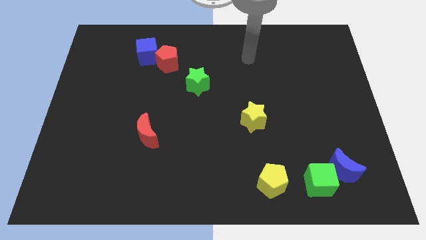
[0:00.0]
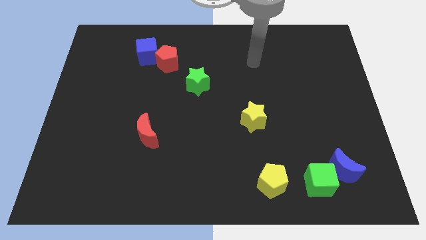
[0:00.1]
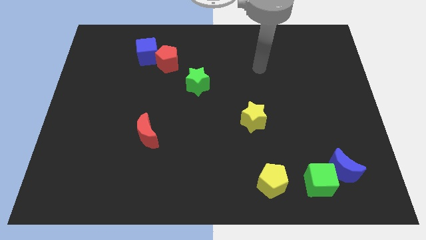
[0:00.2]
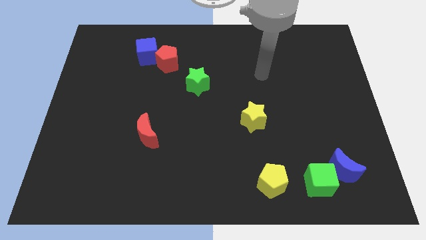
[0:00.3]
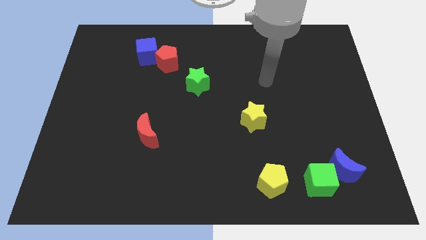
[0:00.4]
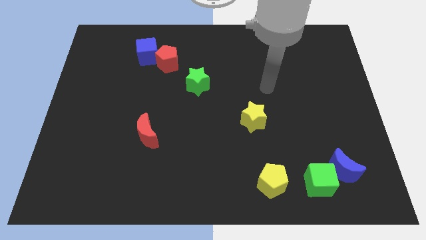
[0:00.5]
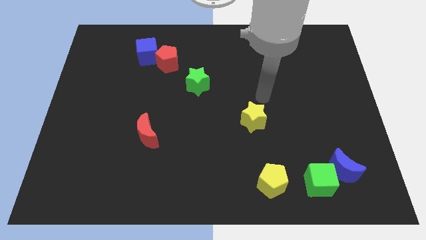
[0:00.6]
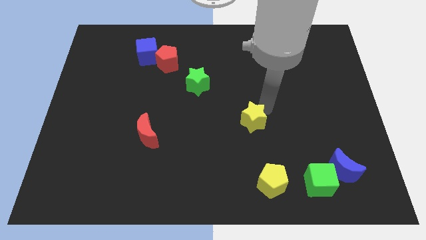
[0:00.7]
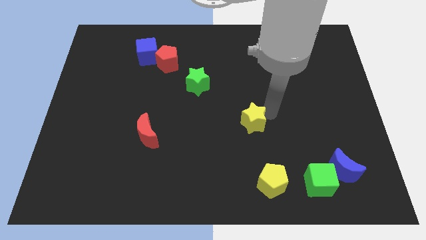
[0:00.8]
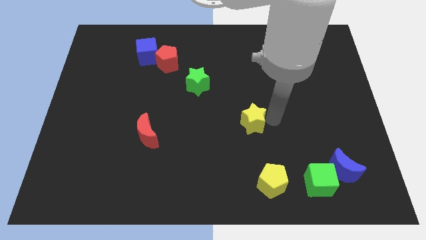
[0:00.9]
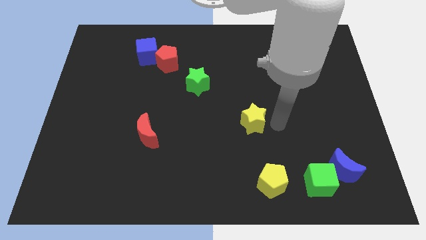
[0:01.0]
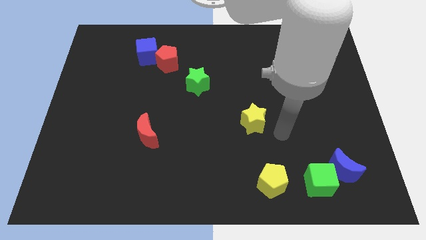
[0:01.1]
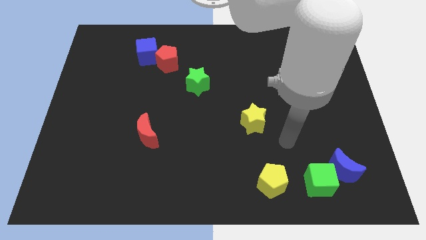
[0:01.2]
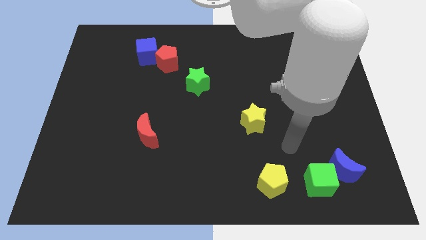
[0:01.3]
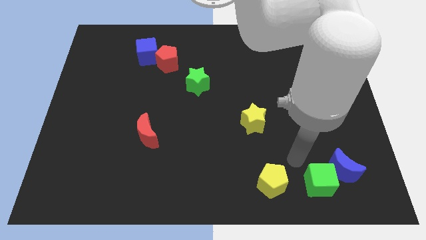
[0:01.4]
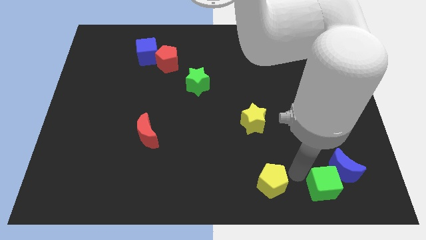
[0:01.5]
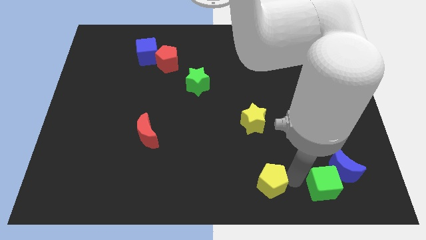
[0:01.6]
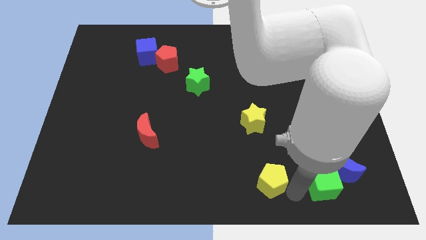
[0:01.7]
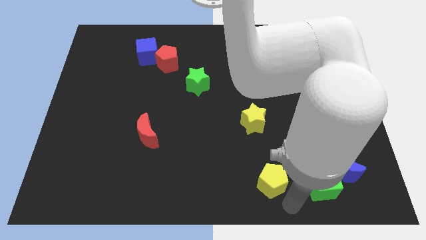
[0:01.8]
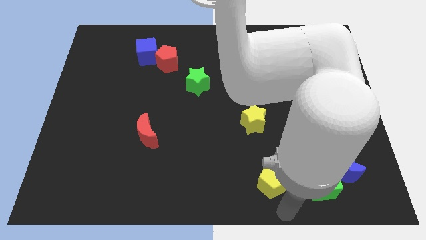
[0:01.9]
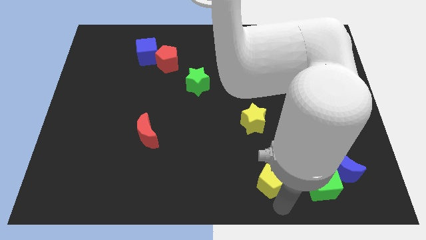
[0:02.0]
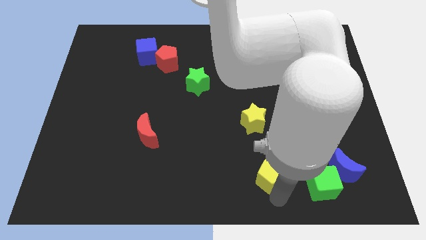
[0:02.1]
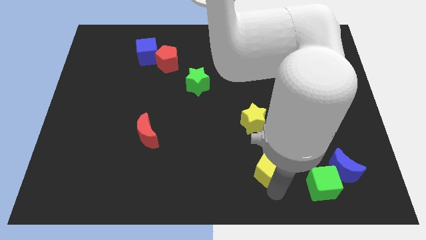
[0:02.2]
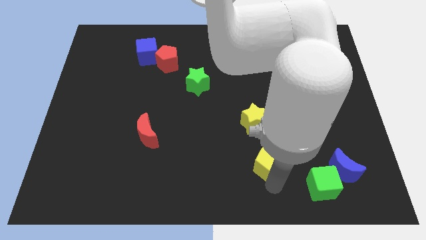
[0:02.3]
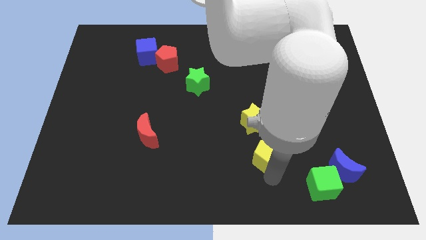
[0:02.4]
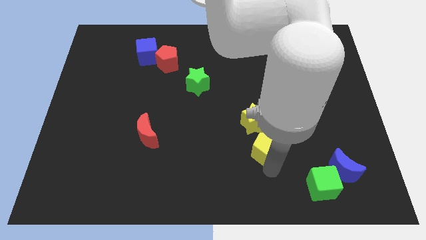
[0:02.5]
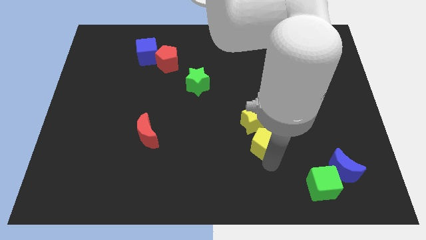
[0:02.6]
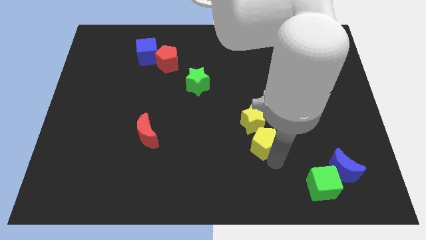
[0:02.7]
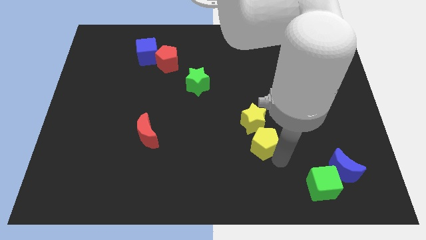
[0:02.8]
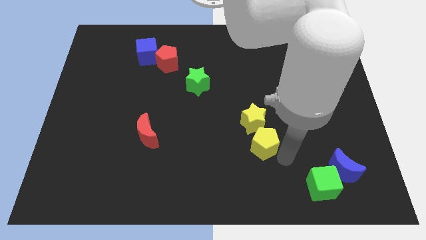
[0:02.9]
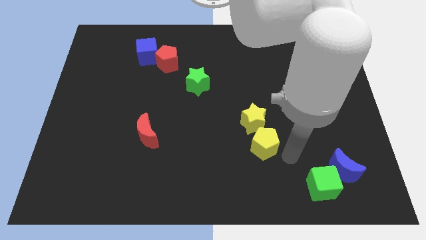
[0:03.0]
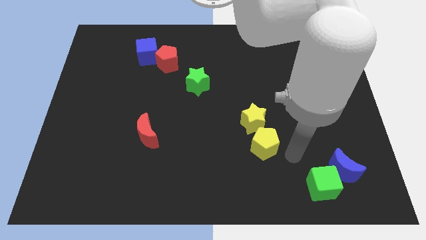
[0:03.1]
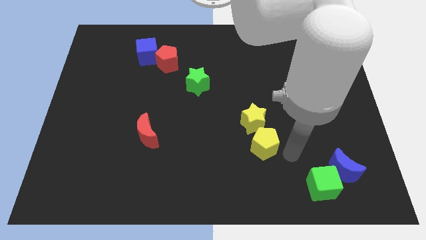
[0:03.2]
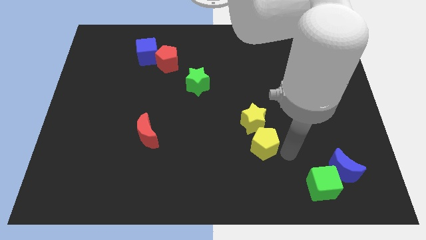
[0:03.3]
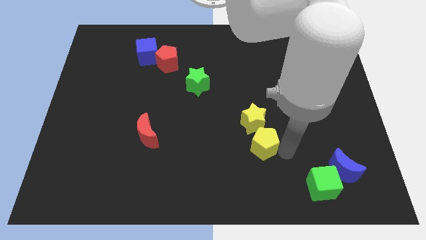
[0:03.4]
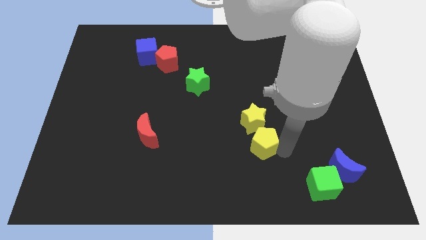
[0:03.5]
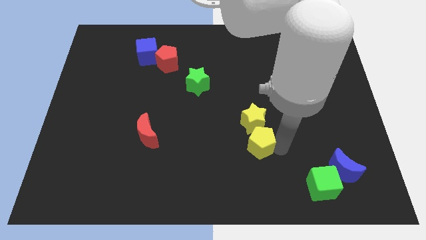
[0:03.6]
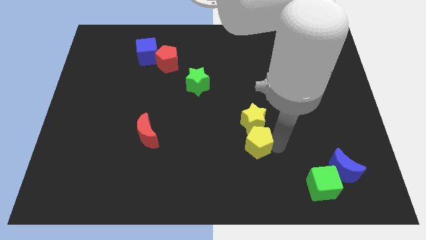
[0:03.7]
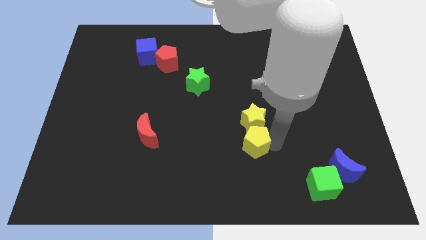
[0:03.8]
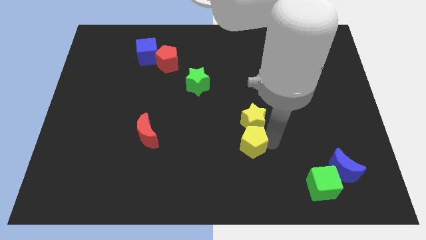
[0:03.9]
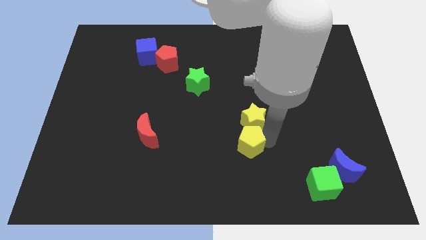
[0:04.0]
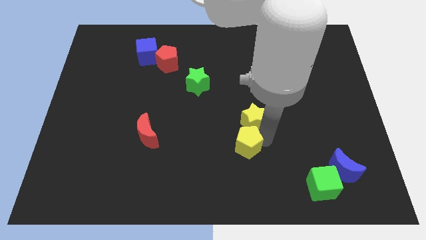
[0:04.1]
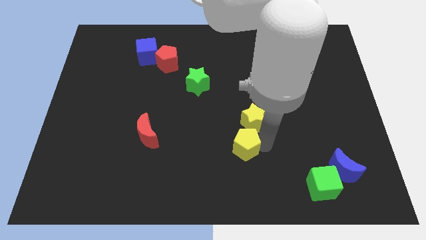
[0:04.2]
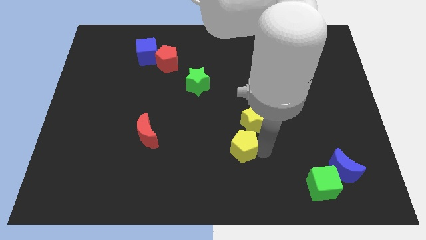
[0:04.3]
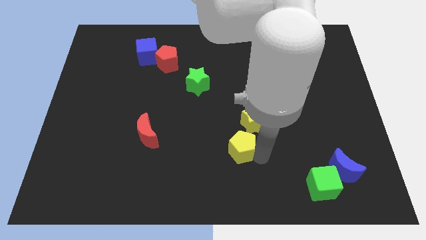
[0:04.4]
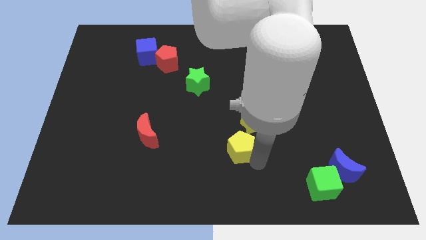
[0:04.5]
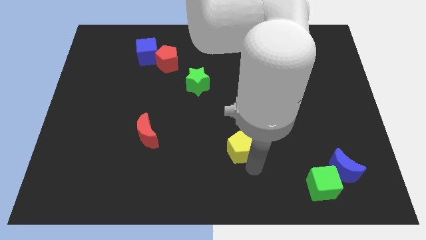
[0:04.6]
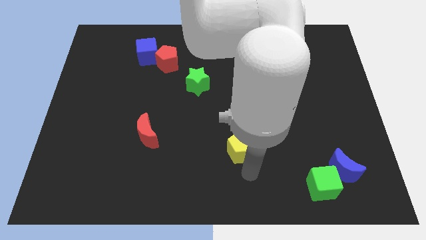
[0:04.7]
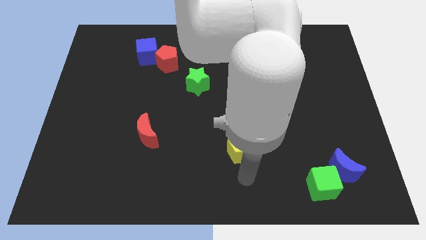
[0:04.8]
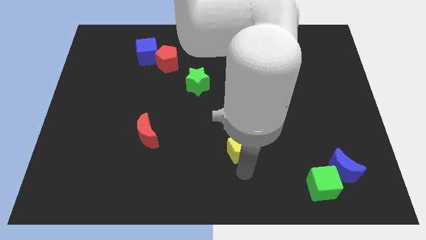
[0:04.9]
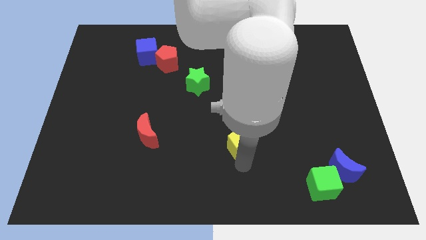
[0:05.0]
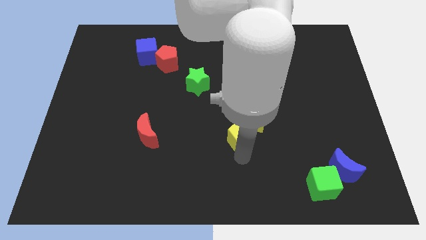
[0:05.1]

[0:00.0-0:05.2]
push the yellow pentagon to the middle
